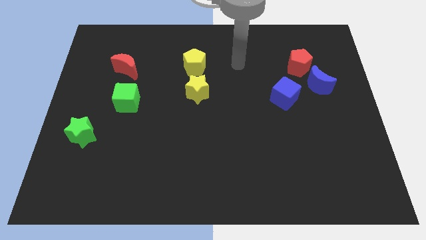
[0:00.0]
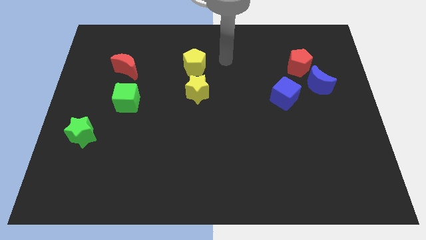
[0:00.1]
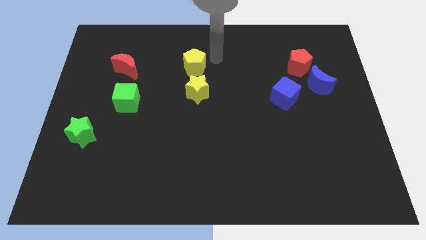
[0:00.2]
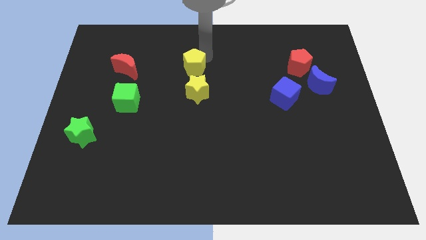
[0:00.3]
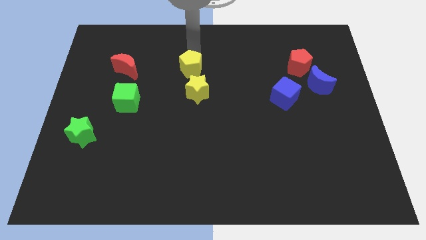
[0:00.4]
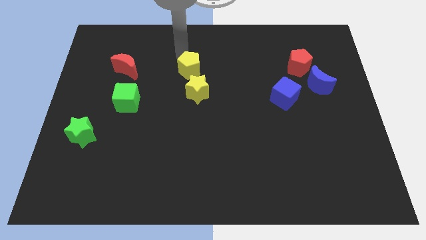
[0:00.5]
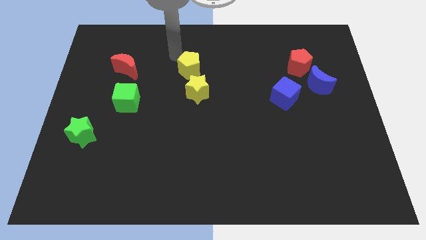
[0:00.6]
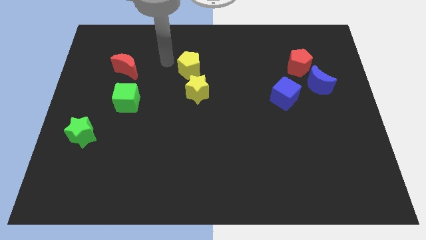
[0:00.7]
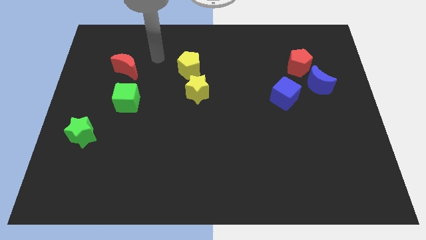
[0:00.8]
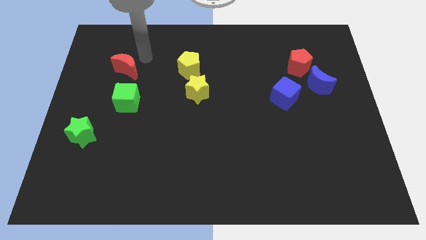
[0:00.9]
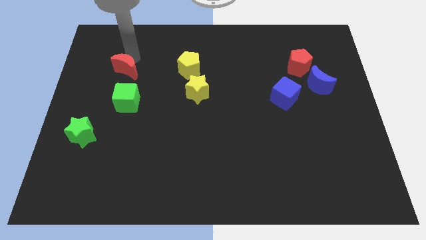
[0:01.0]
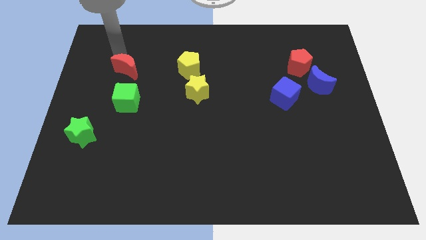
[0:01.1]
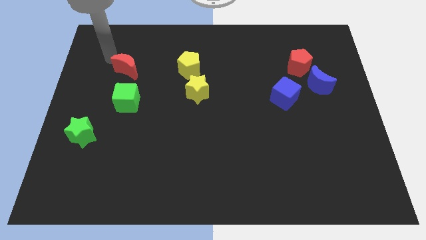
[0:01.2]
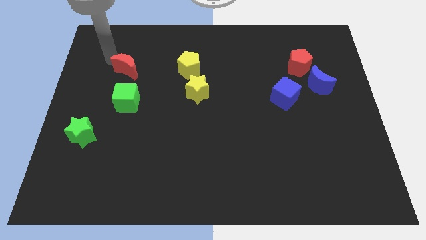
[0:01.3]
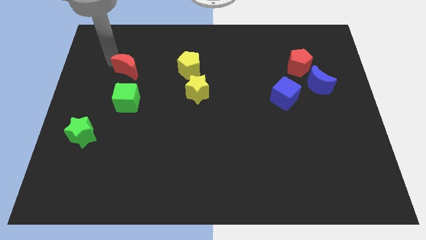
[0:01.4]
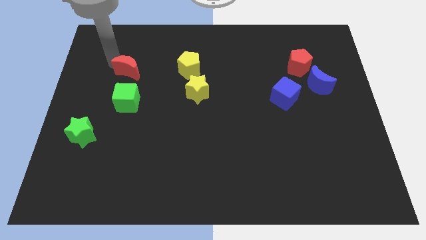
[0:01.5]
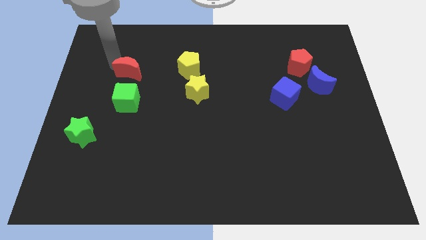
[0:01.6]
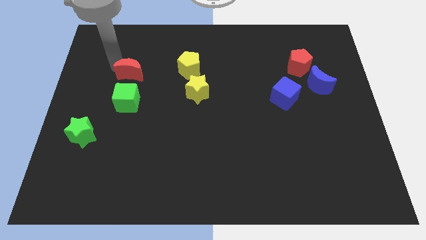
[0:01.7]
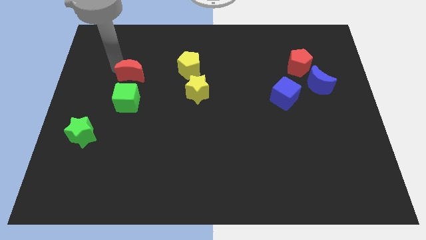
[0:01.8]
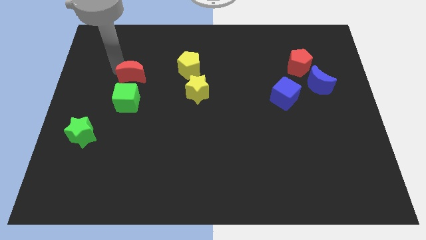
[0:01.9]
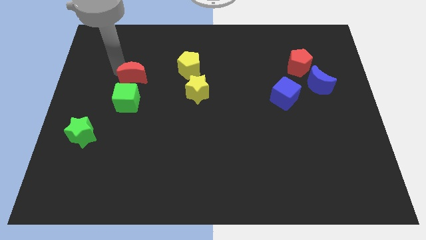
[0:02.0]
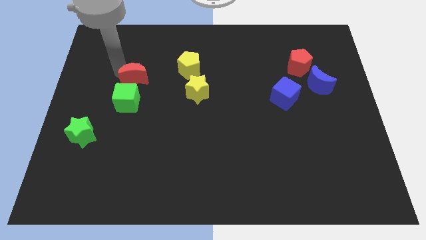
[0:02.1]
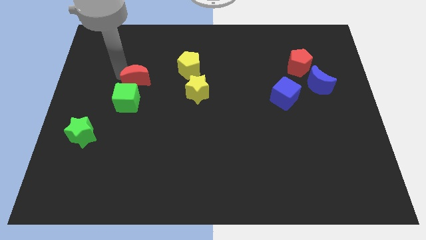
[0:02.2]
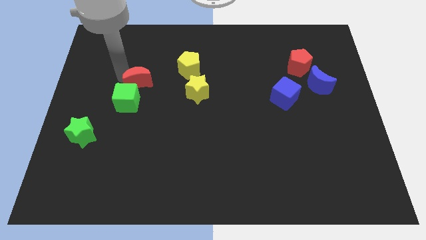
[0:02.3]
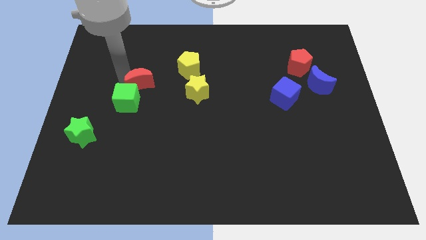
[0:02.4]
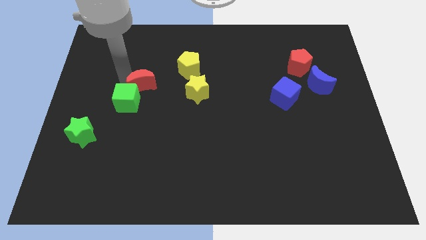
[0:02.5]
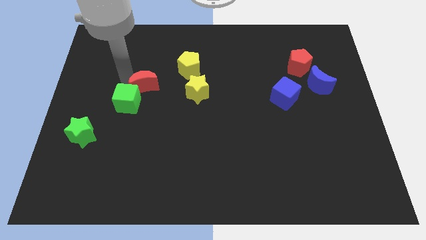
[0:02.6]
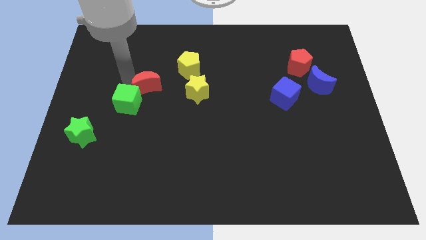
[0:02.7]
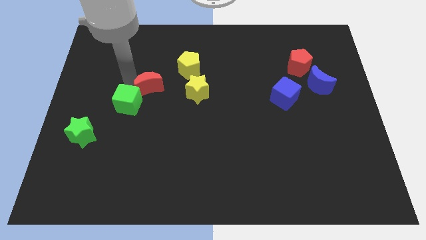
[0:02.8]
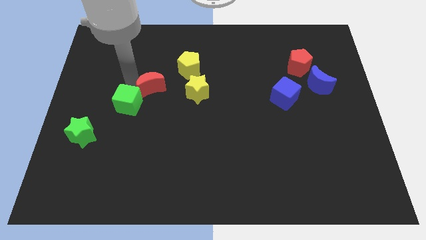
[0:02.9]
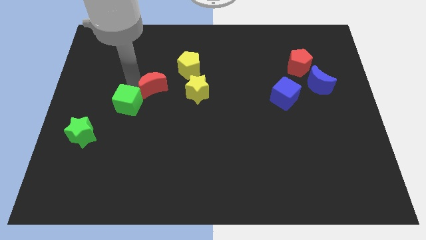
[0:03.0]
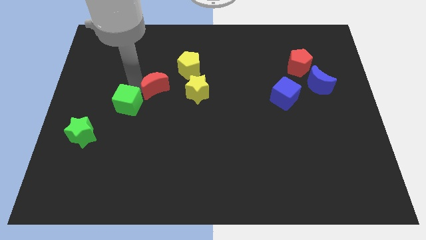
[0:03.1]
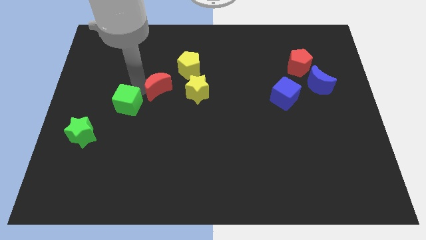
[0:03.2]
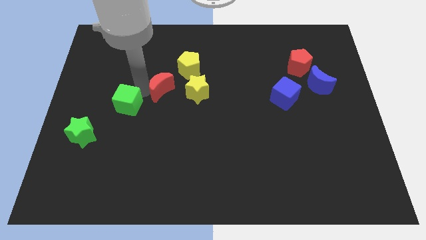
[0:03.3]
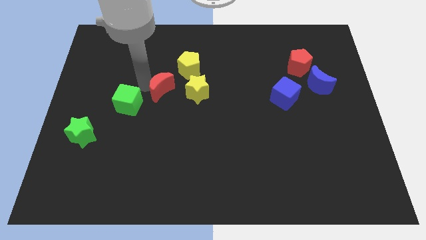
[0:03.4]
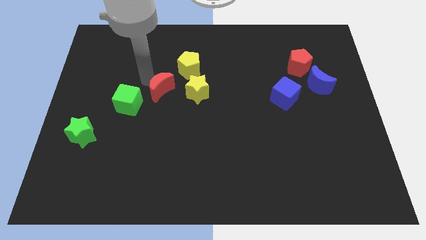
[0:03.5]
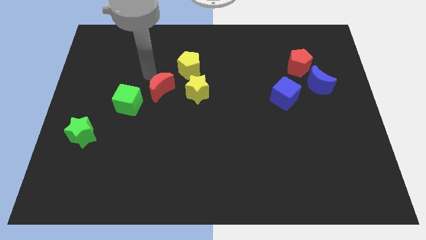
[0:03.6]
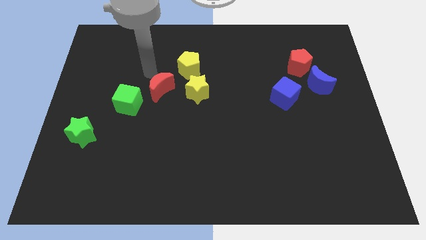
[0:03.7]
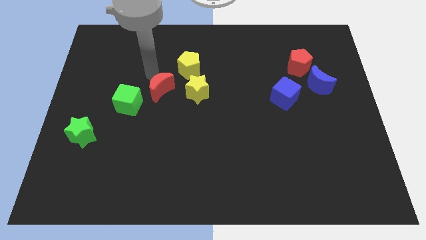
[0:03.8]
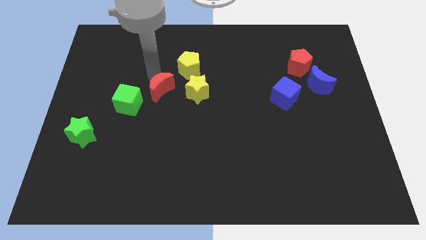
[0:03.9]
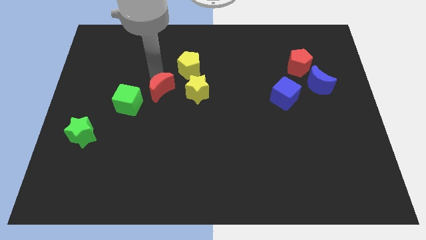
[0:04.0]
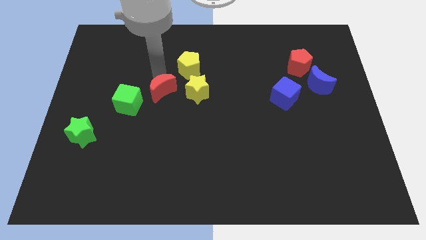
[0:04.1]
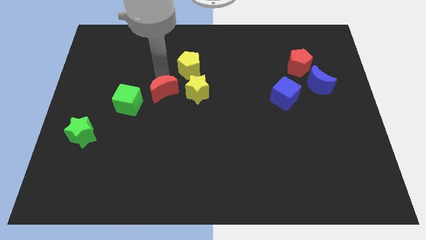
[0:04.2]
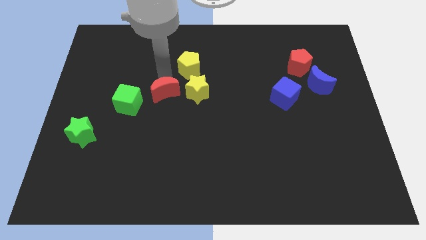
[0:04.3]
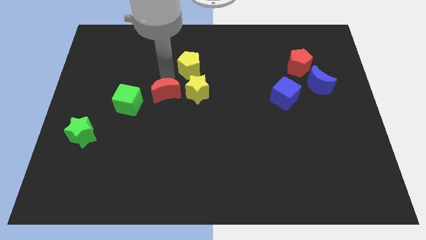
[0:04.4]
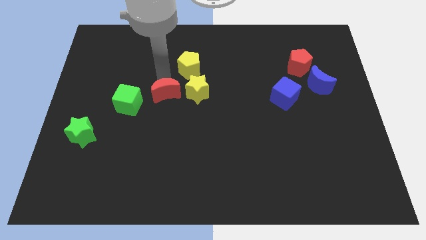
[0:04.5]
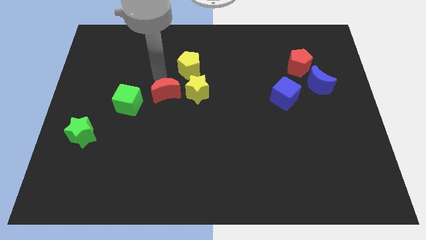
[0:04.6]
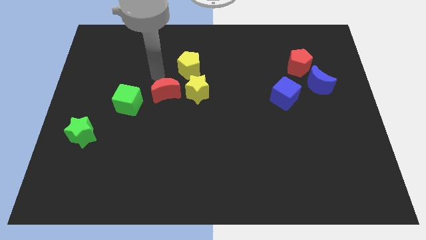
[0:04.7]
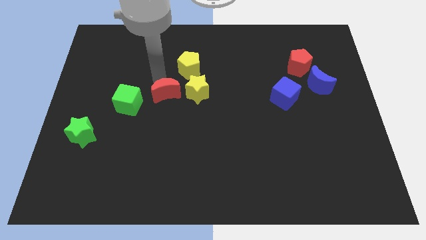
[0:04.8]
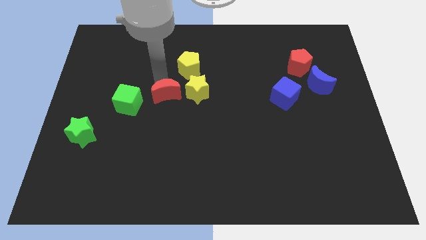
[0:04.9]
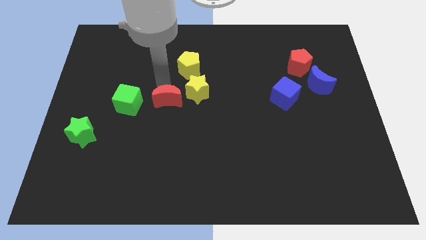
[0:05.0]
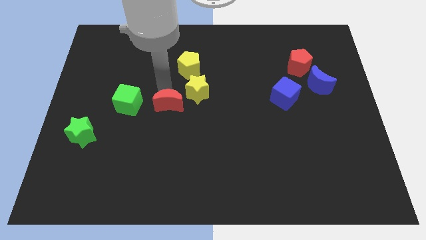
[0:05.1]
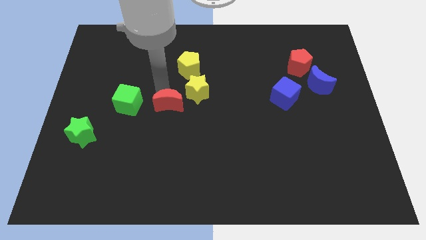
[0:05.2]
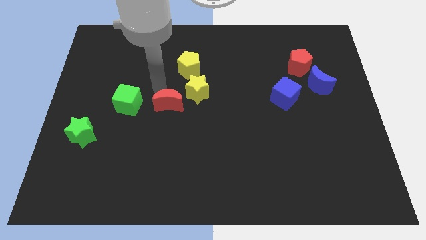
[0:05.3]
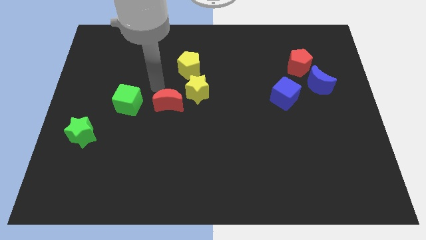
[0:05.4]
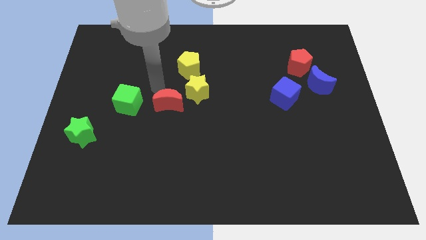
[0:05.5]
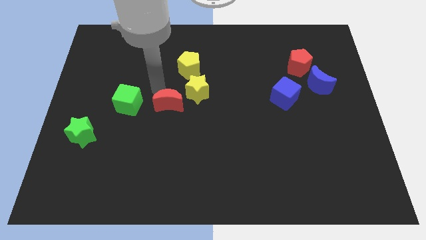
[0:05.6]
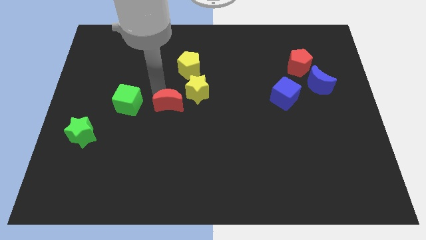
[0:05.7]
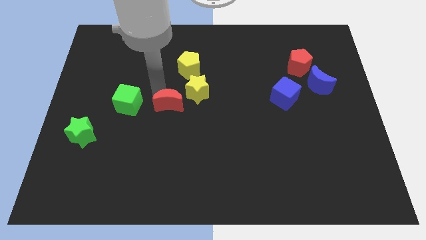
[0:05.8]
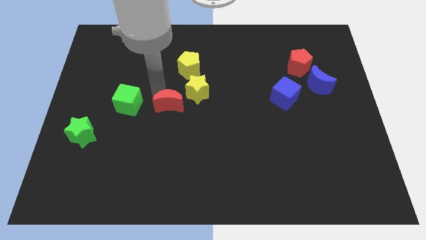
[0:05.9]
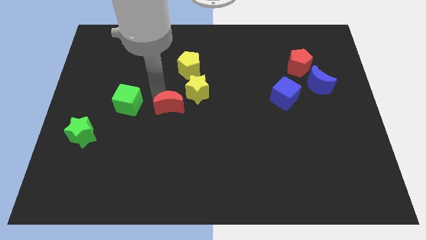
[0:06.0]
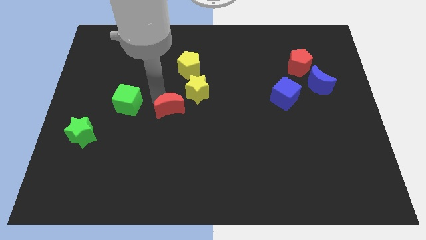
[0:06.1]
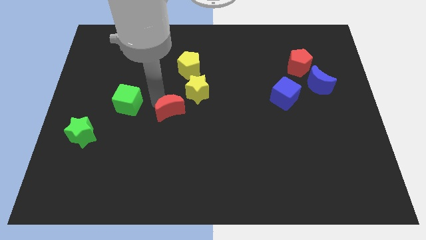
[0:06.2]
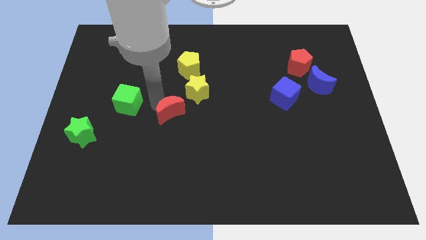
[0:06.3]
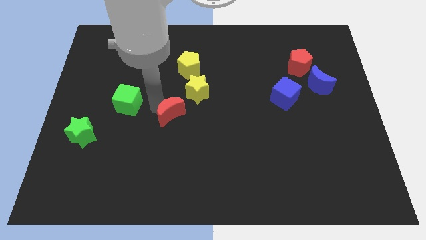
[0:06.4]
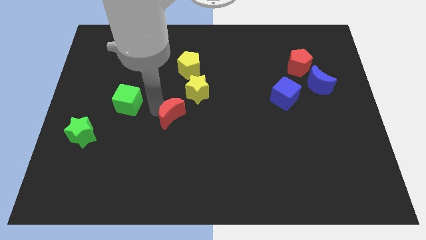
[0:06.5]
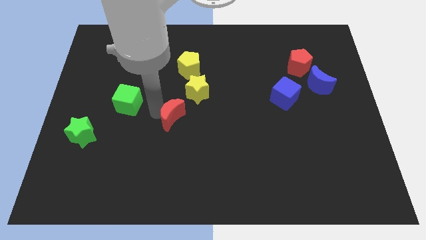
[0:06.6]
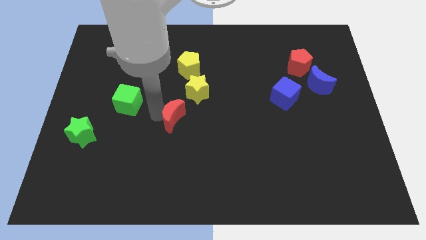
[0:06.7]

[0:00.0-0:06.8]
move the red moon diagonally down and to the right

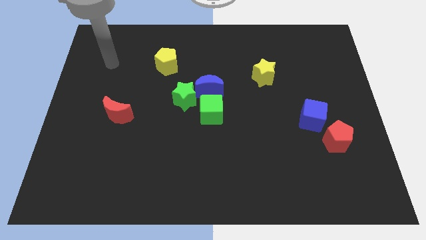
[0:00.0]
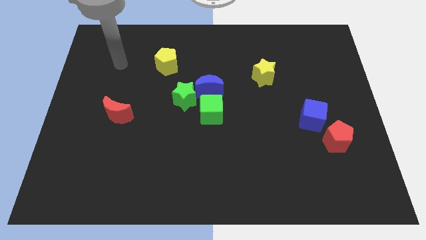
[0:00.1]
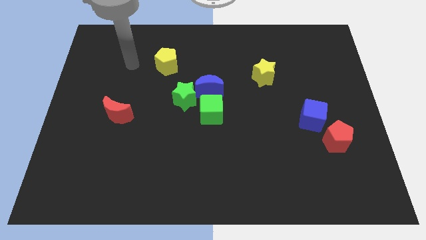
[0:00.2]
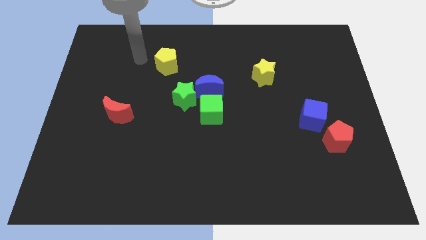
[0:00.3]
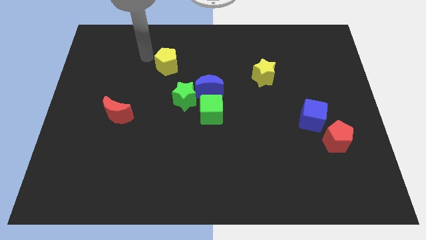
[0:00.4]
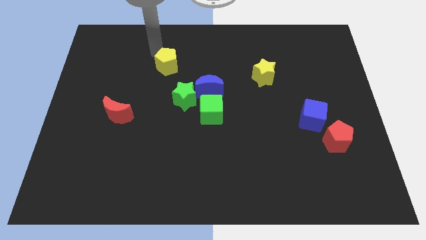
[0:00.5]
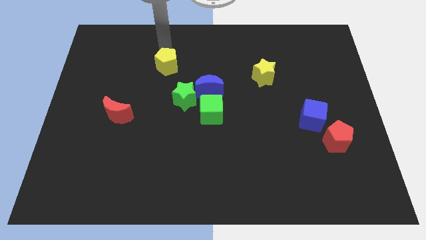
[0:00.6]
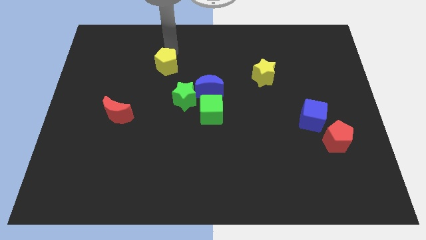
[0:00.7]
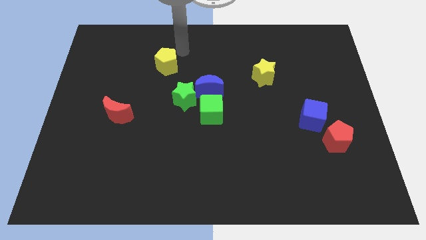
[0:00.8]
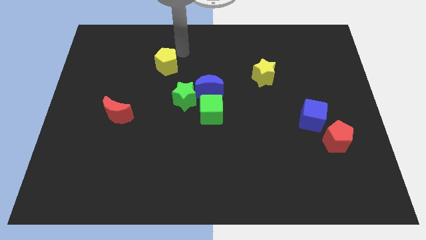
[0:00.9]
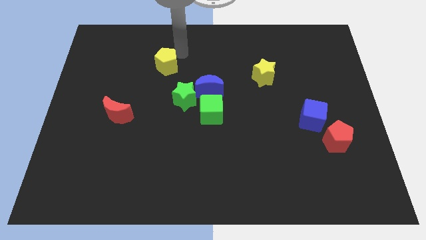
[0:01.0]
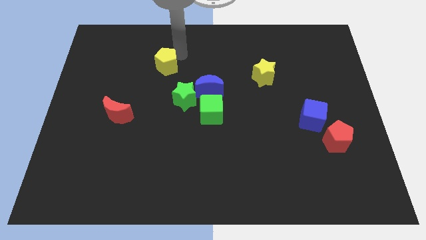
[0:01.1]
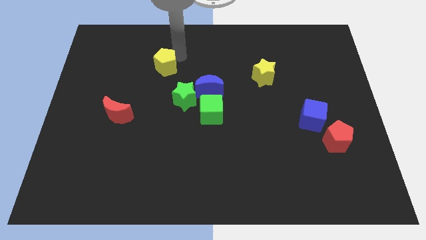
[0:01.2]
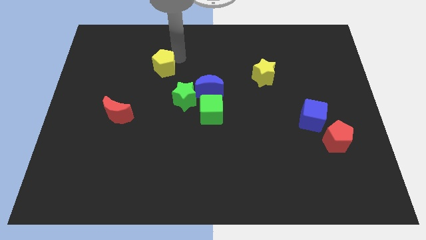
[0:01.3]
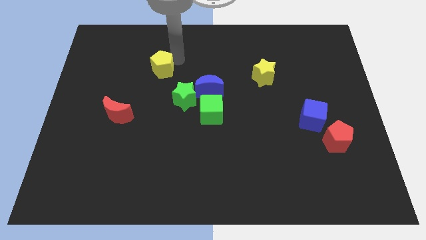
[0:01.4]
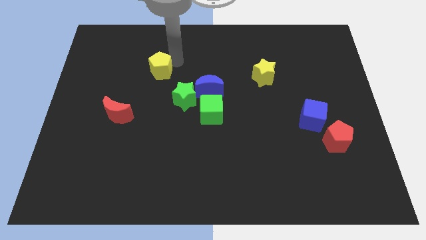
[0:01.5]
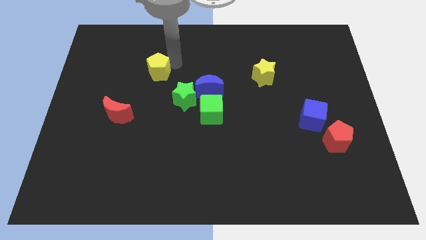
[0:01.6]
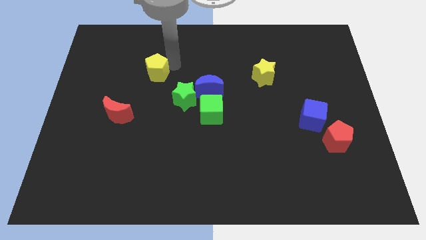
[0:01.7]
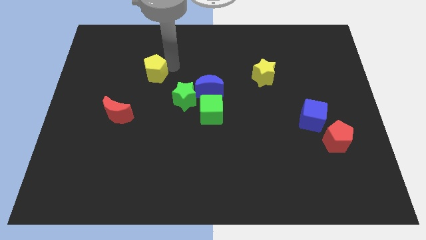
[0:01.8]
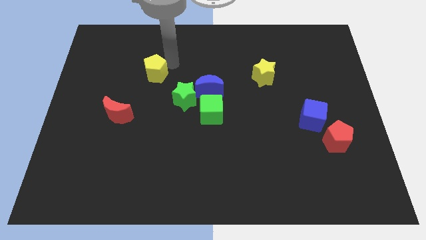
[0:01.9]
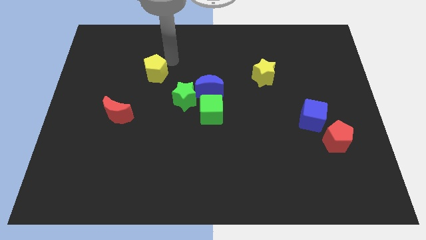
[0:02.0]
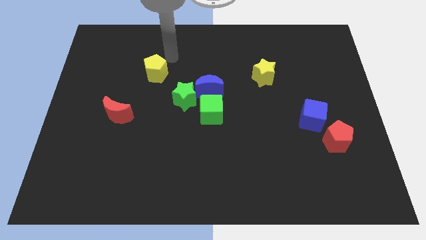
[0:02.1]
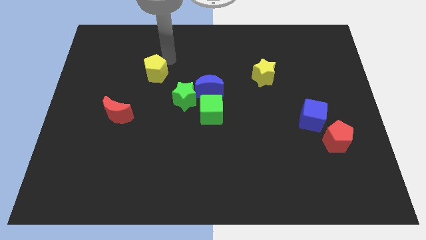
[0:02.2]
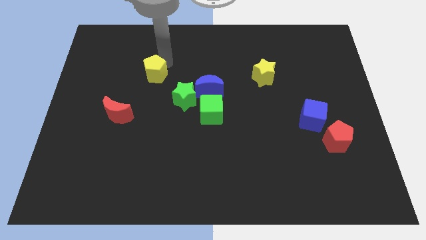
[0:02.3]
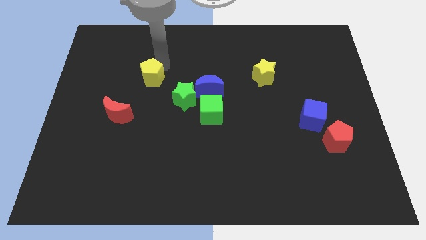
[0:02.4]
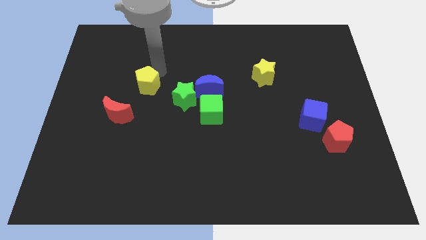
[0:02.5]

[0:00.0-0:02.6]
push the yellow pentagon down and to the left diagonally a bit
